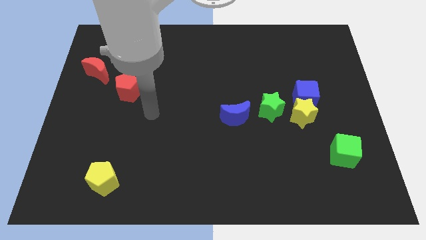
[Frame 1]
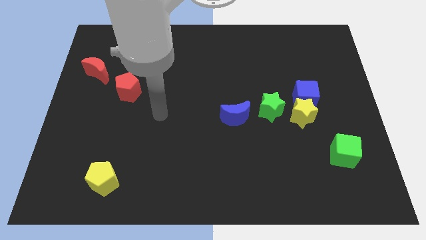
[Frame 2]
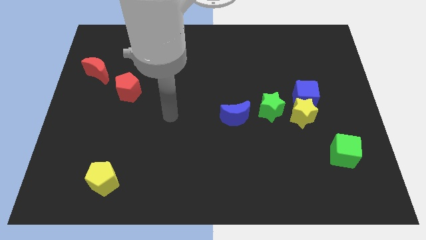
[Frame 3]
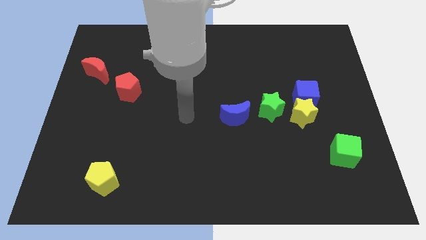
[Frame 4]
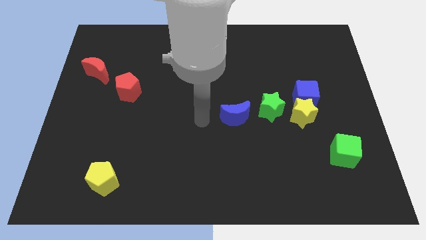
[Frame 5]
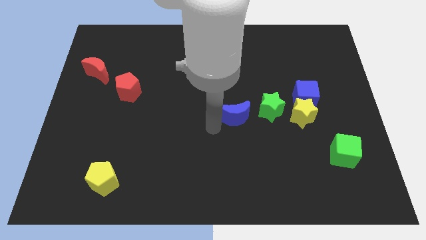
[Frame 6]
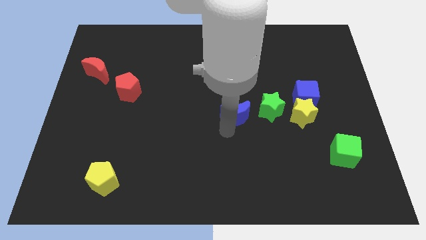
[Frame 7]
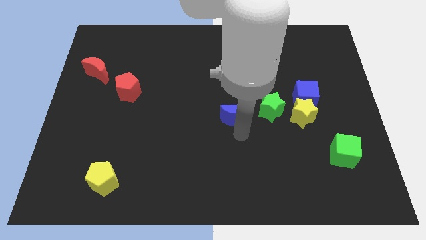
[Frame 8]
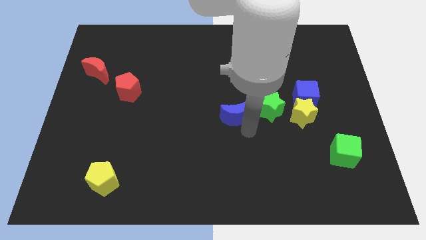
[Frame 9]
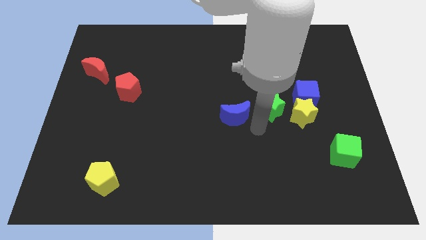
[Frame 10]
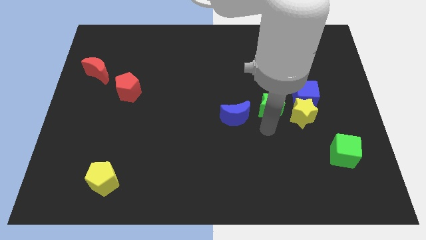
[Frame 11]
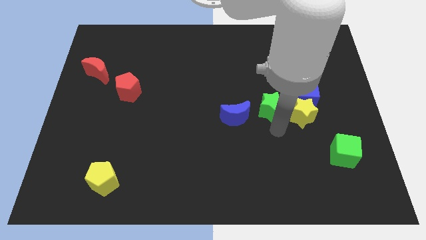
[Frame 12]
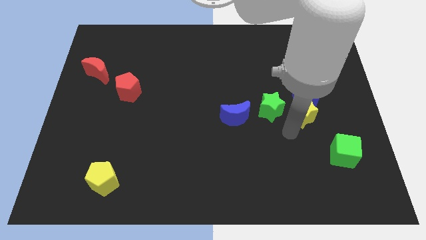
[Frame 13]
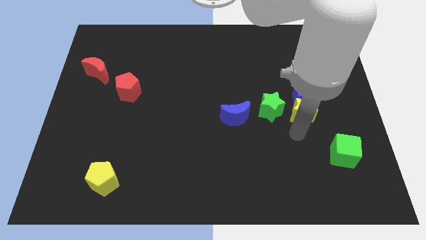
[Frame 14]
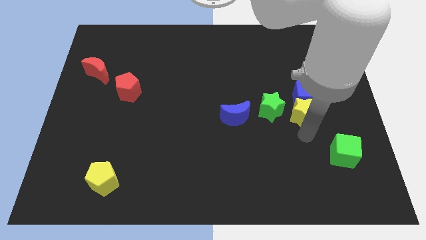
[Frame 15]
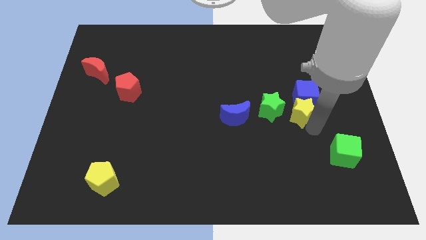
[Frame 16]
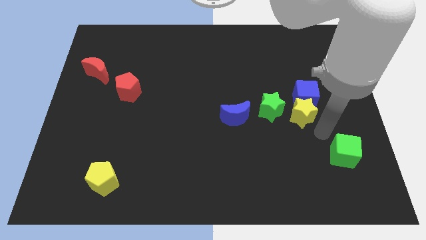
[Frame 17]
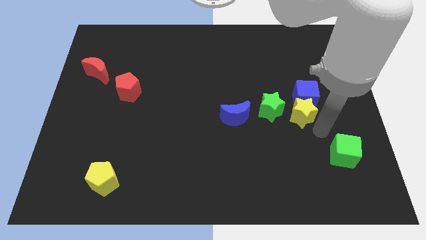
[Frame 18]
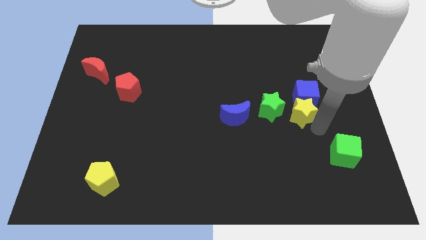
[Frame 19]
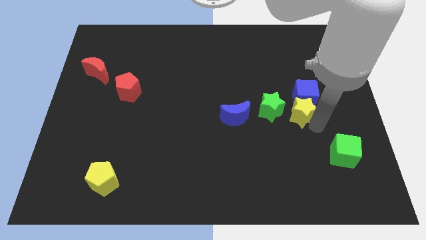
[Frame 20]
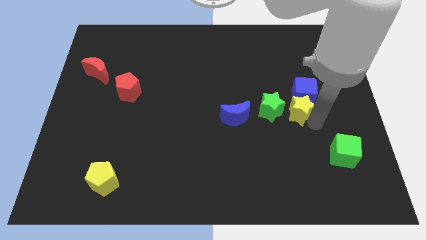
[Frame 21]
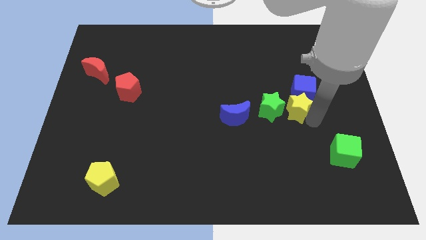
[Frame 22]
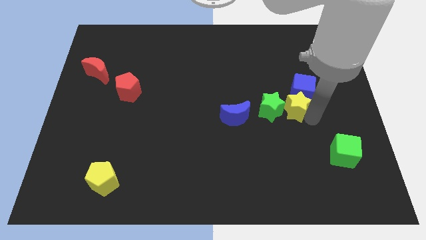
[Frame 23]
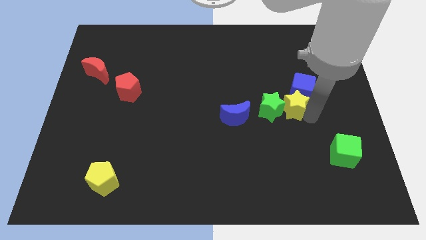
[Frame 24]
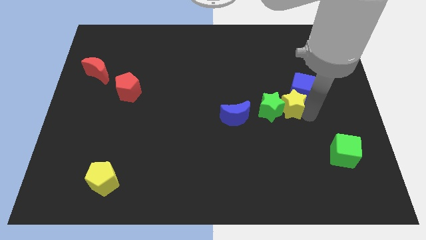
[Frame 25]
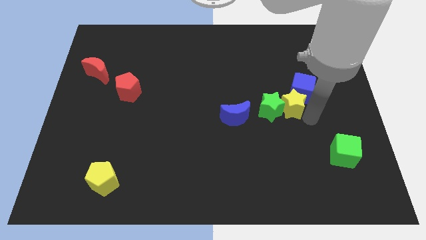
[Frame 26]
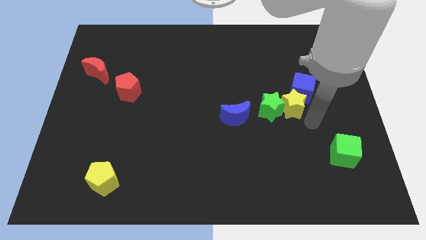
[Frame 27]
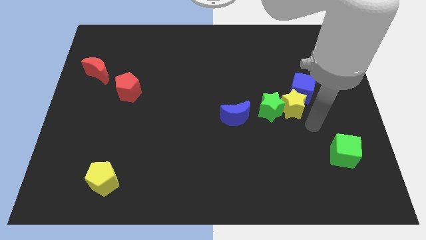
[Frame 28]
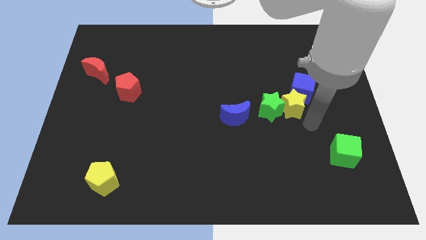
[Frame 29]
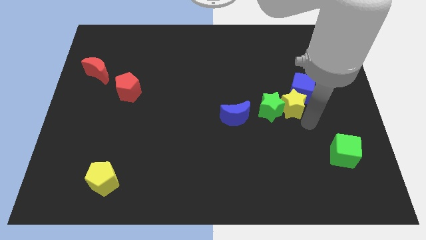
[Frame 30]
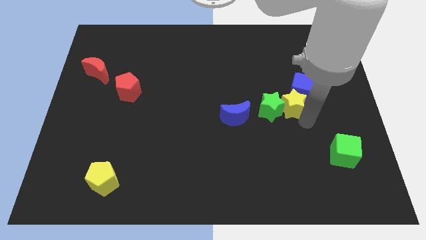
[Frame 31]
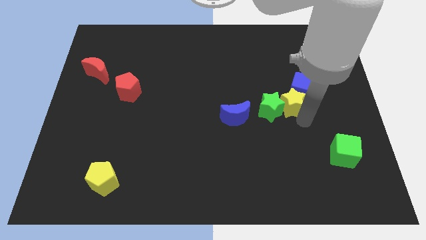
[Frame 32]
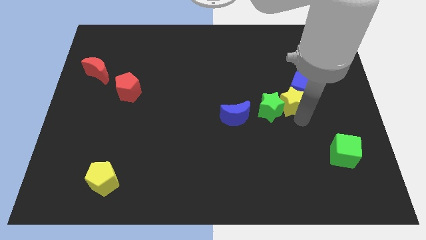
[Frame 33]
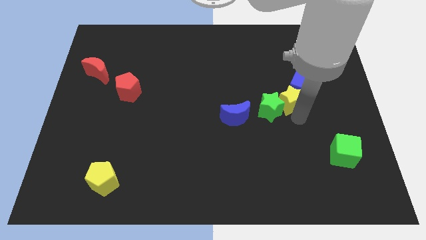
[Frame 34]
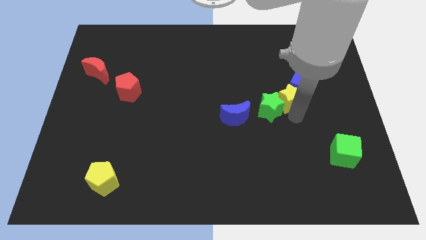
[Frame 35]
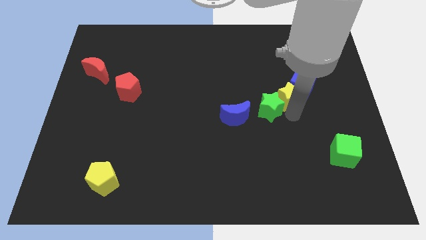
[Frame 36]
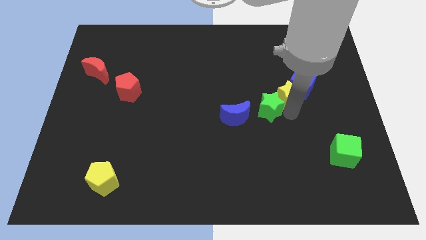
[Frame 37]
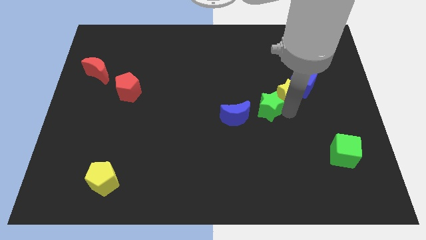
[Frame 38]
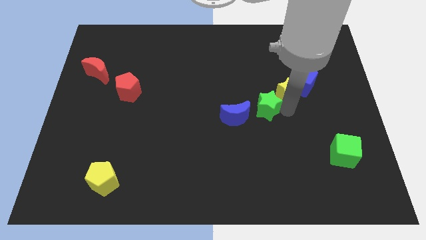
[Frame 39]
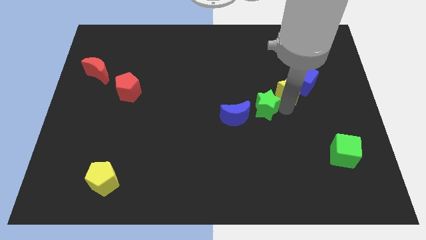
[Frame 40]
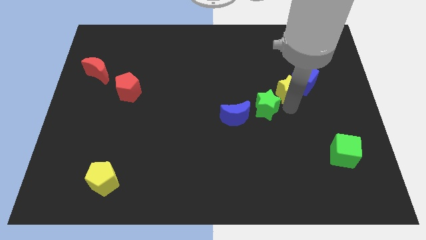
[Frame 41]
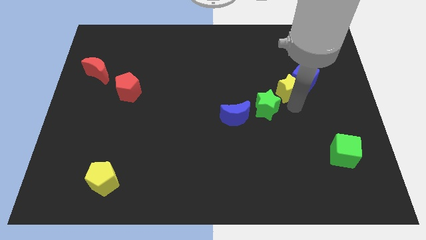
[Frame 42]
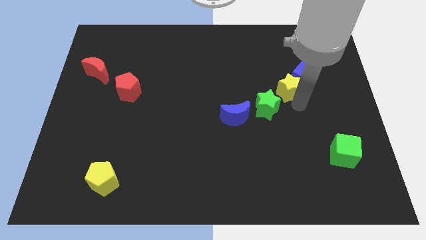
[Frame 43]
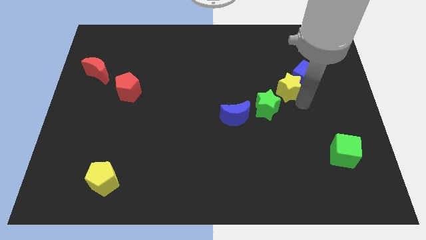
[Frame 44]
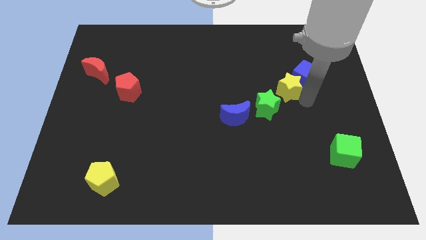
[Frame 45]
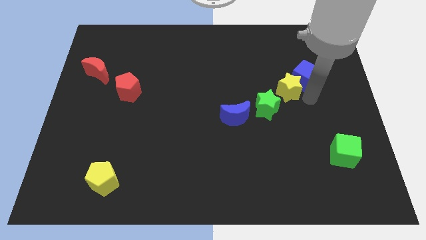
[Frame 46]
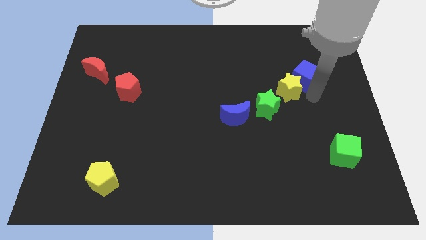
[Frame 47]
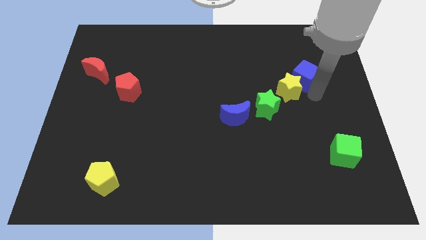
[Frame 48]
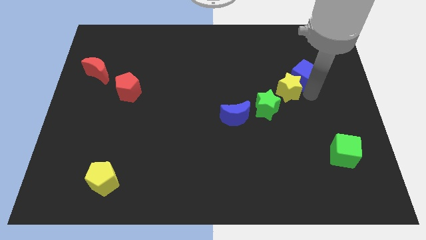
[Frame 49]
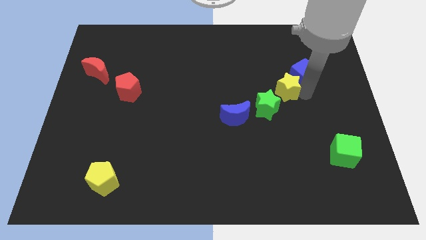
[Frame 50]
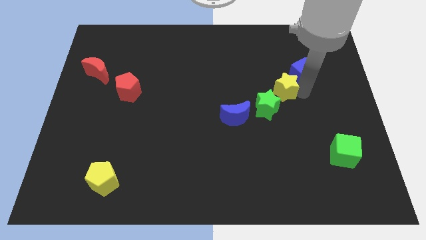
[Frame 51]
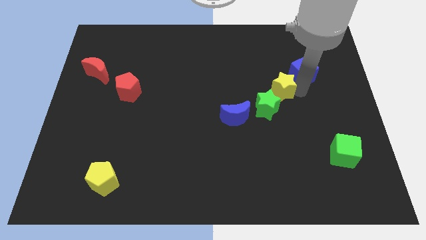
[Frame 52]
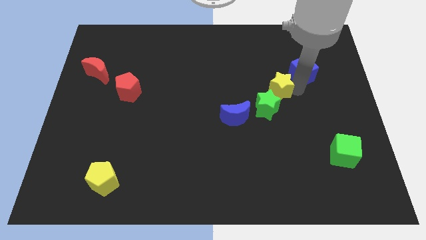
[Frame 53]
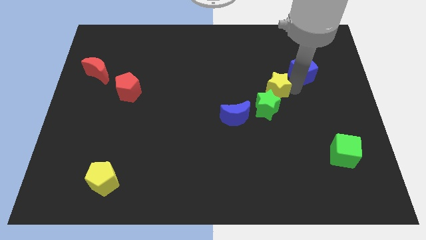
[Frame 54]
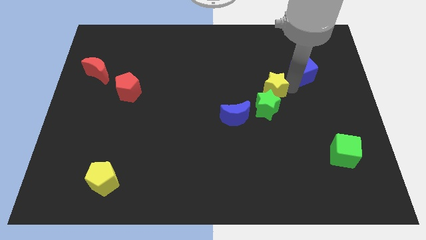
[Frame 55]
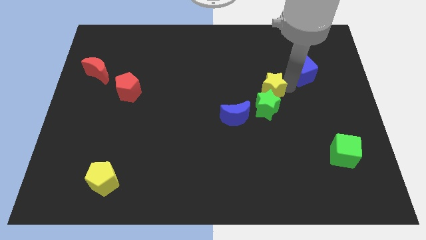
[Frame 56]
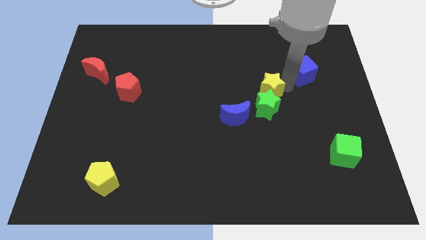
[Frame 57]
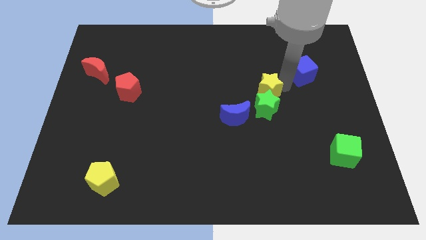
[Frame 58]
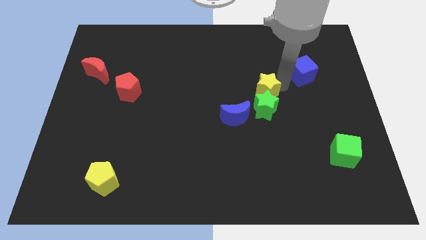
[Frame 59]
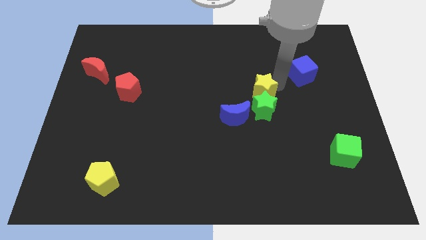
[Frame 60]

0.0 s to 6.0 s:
move the yellow star to the middle of the board

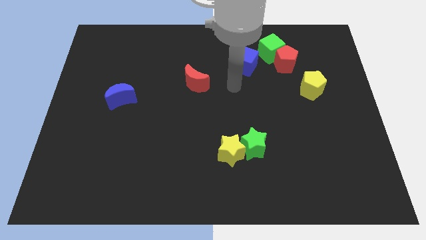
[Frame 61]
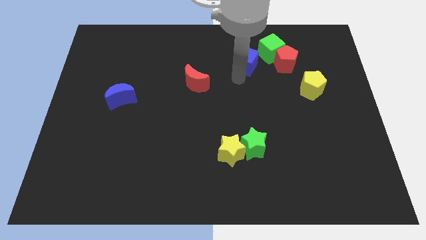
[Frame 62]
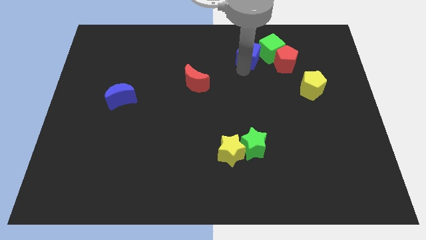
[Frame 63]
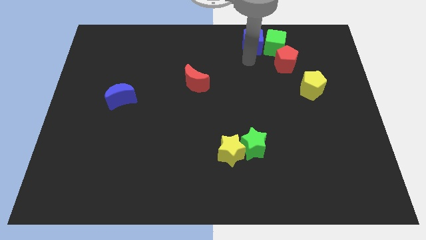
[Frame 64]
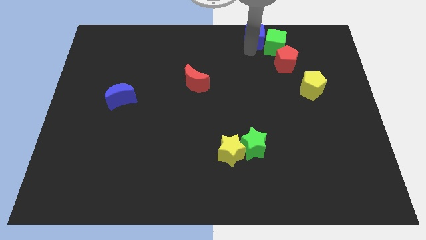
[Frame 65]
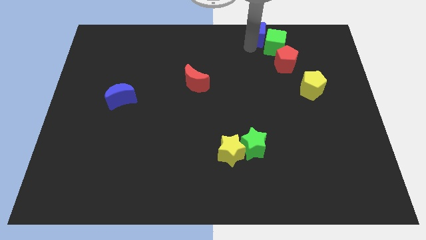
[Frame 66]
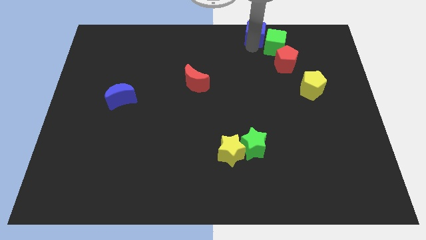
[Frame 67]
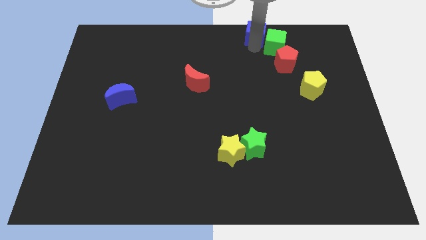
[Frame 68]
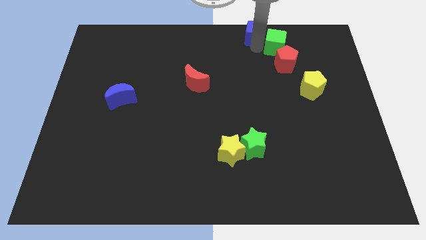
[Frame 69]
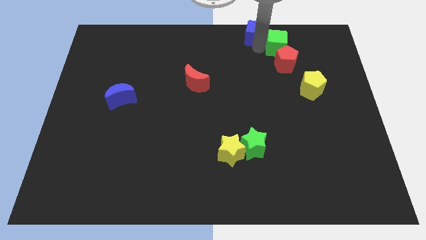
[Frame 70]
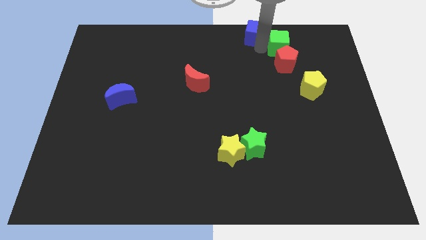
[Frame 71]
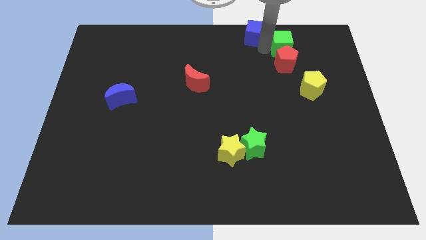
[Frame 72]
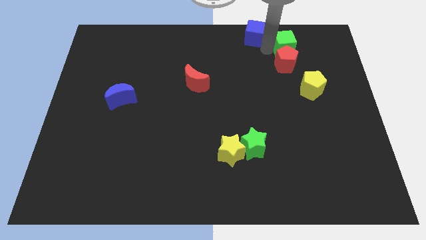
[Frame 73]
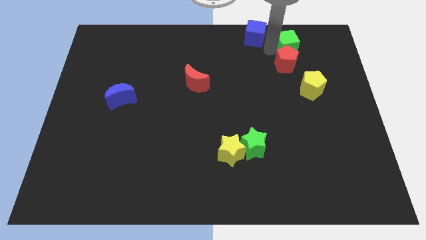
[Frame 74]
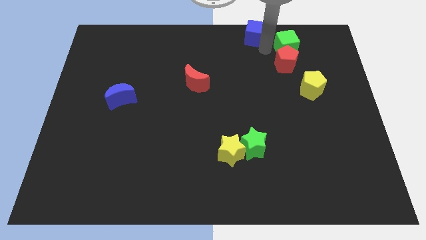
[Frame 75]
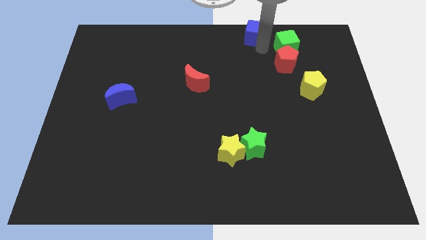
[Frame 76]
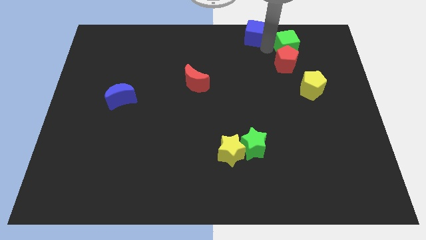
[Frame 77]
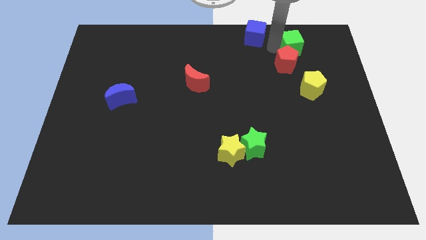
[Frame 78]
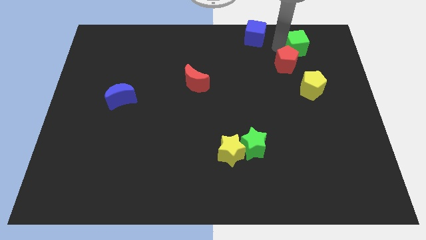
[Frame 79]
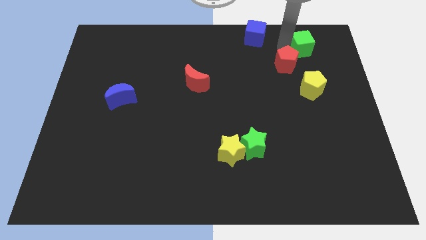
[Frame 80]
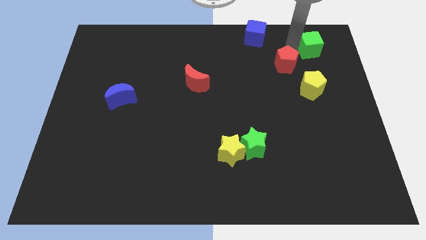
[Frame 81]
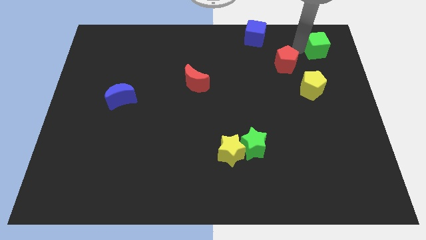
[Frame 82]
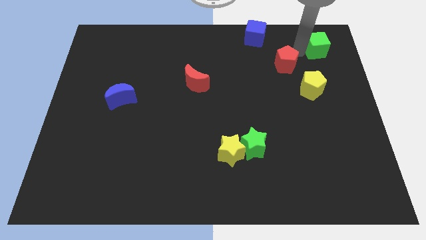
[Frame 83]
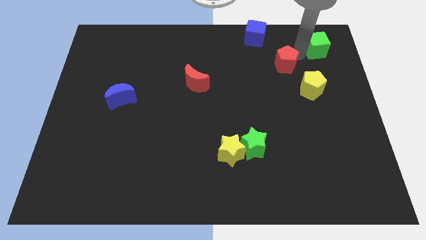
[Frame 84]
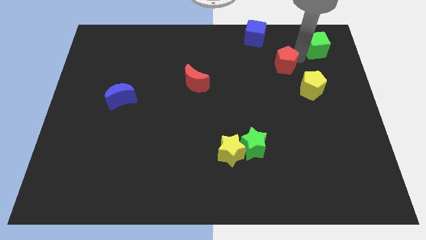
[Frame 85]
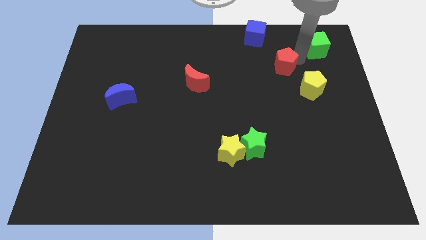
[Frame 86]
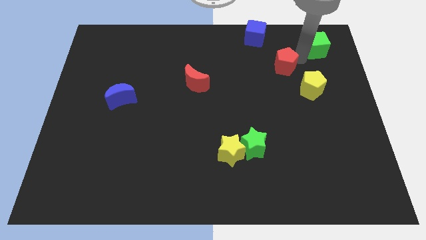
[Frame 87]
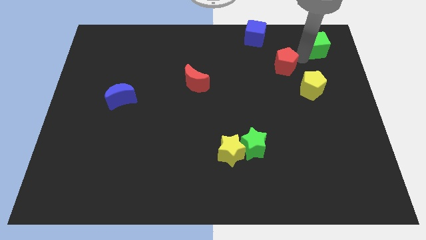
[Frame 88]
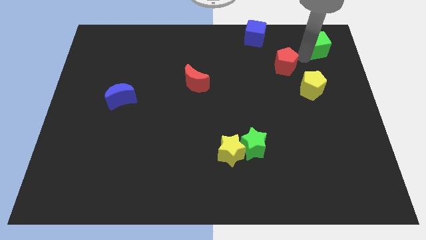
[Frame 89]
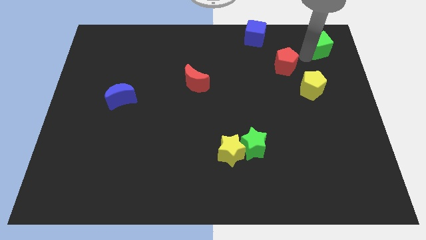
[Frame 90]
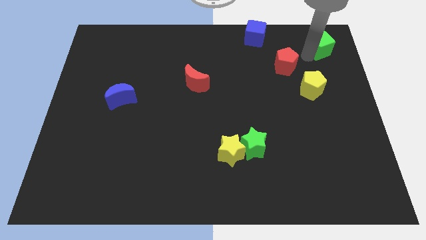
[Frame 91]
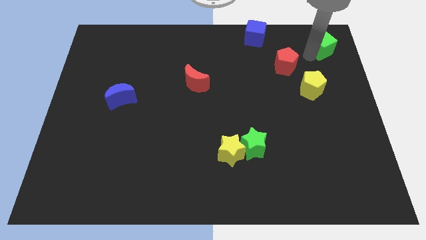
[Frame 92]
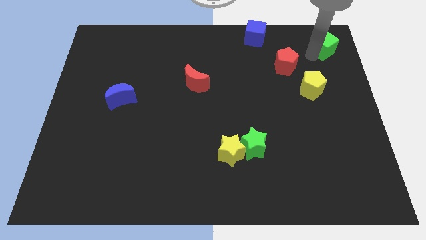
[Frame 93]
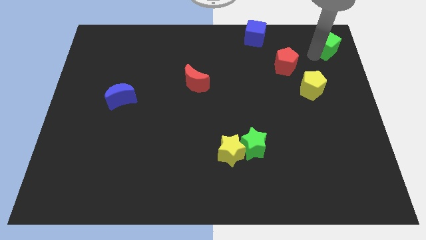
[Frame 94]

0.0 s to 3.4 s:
put the green cube to the top right corner
